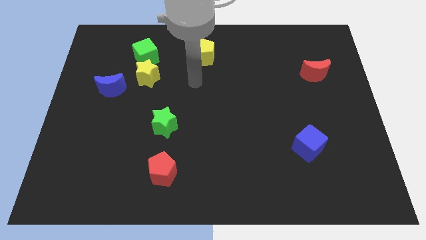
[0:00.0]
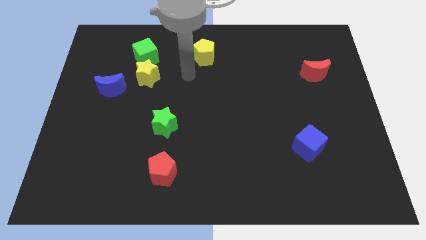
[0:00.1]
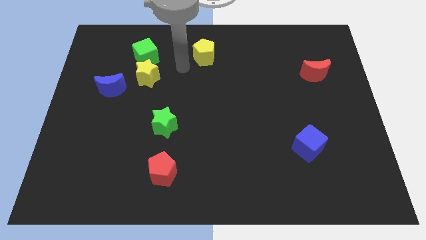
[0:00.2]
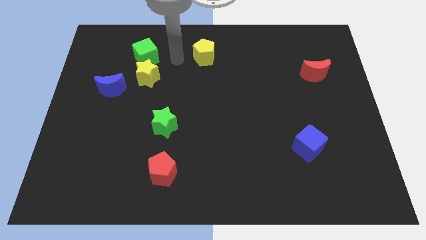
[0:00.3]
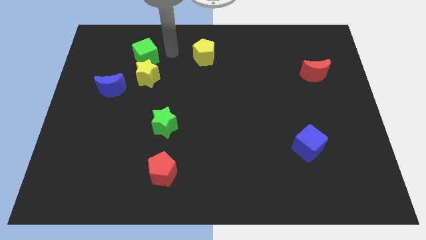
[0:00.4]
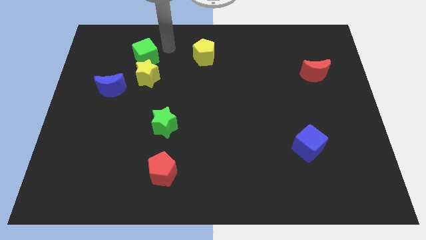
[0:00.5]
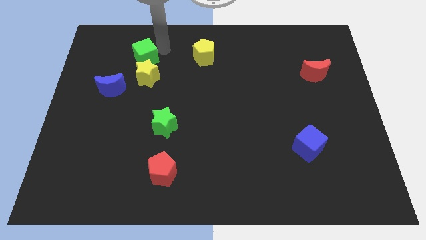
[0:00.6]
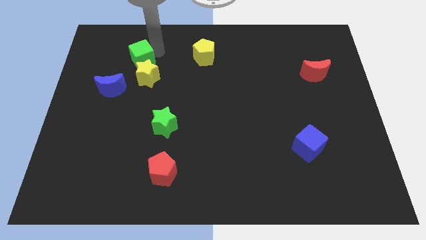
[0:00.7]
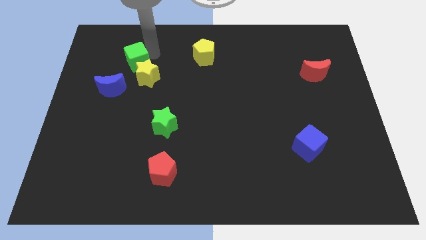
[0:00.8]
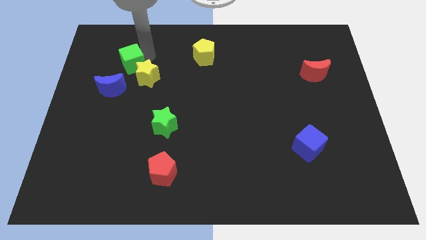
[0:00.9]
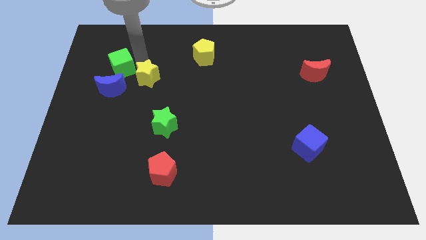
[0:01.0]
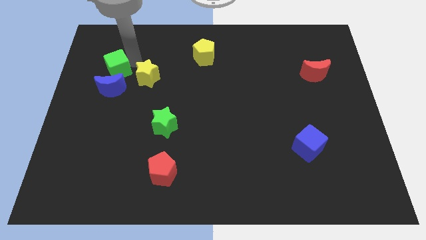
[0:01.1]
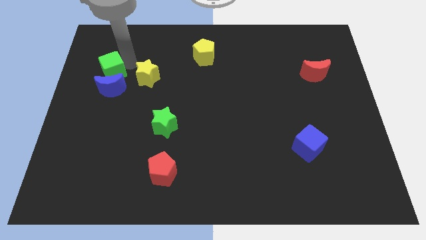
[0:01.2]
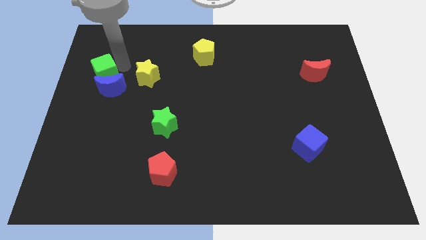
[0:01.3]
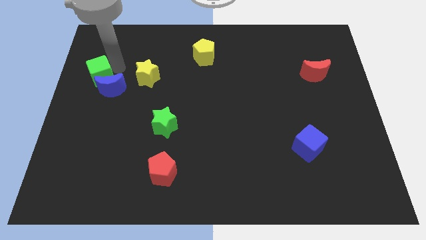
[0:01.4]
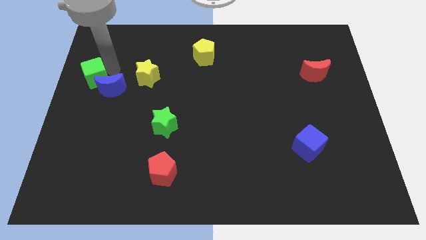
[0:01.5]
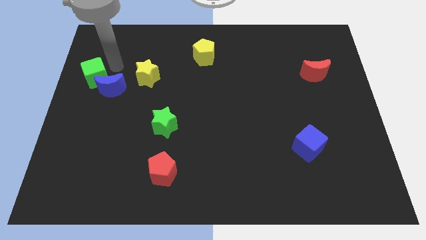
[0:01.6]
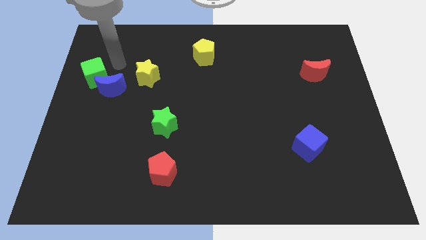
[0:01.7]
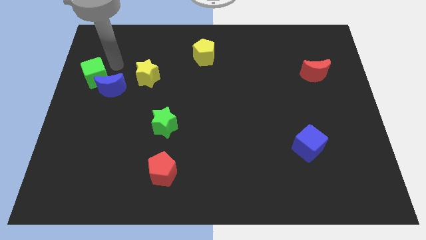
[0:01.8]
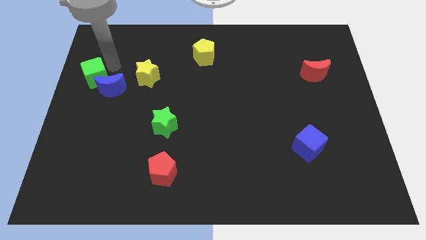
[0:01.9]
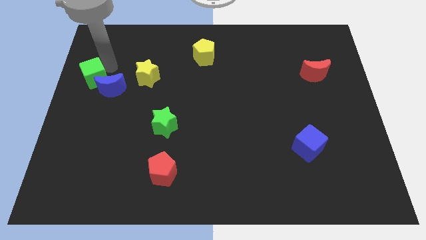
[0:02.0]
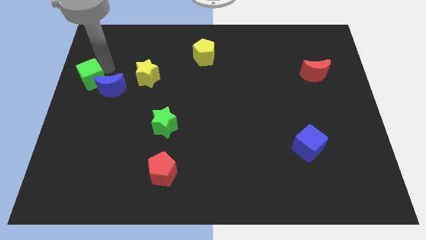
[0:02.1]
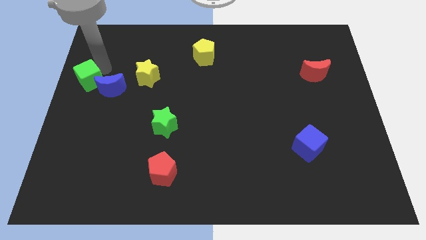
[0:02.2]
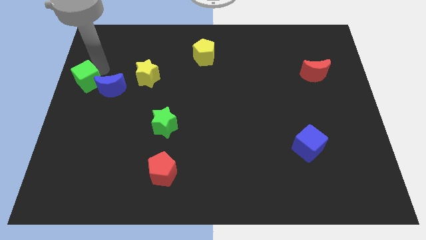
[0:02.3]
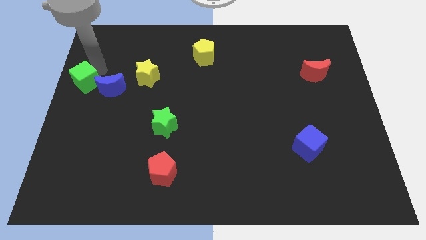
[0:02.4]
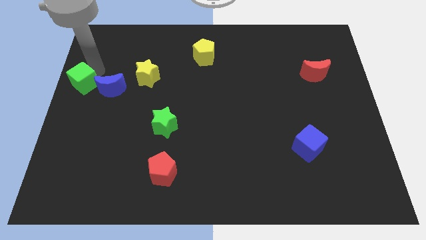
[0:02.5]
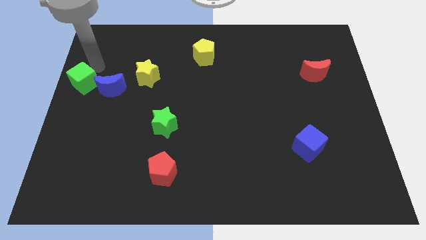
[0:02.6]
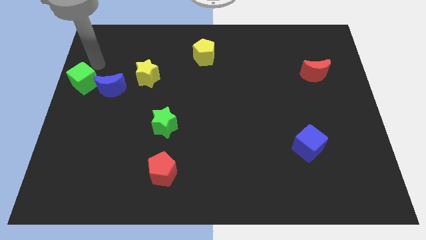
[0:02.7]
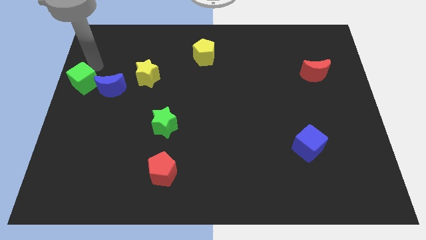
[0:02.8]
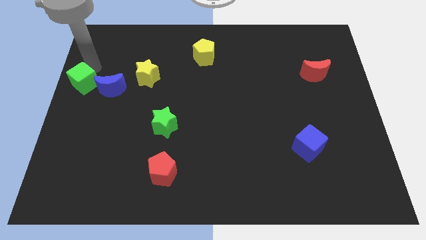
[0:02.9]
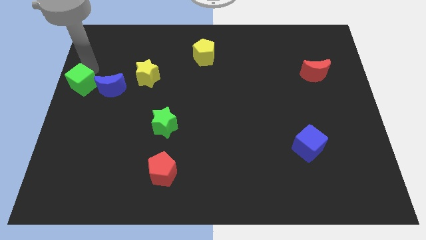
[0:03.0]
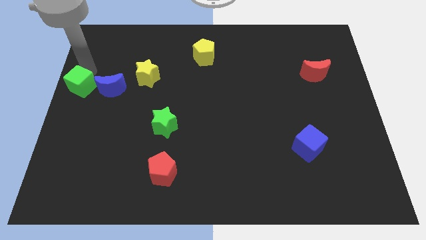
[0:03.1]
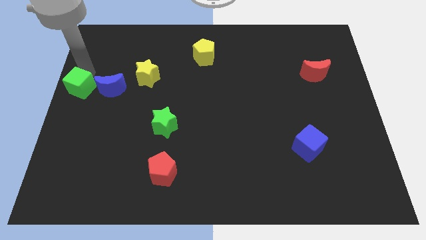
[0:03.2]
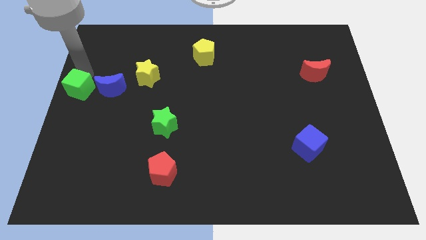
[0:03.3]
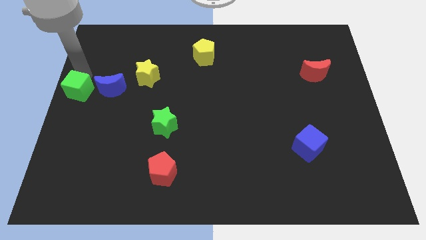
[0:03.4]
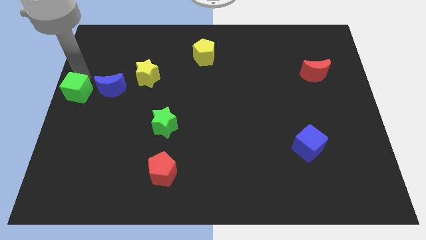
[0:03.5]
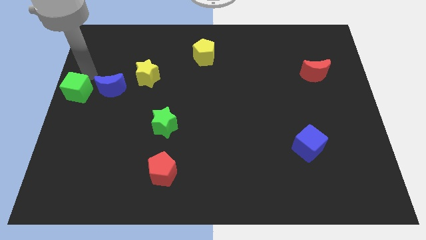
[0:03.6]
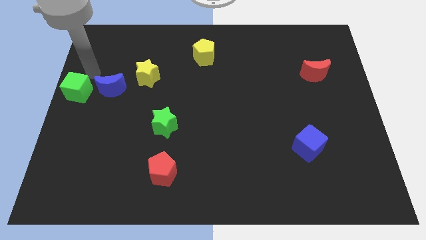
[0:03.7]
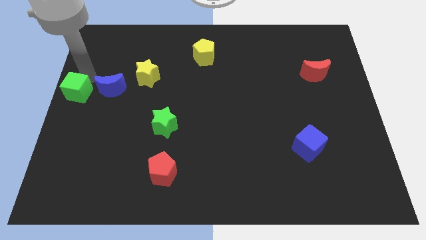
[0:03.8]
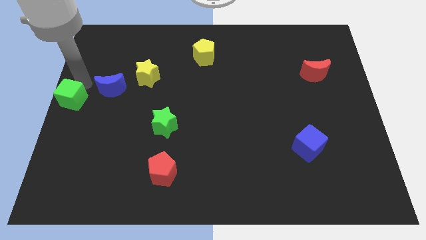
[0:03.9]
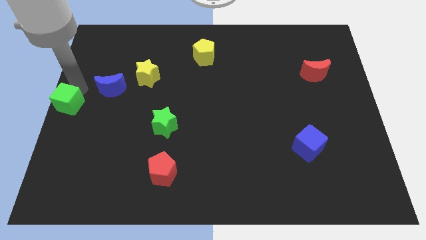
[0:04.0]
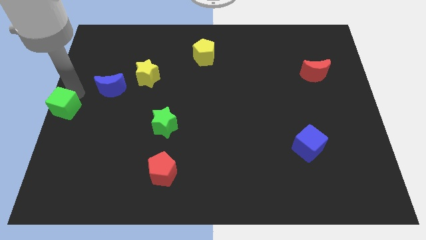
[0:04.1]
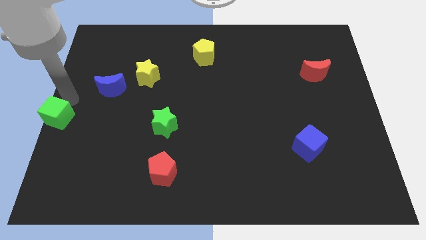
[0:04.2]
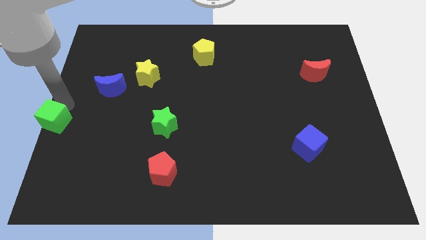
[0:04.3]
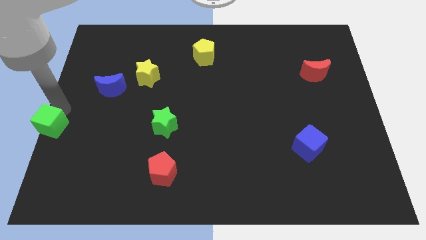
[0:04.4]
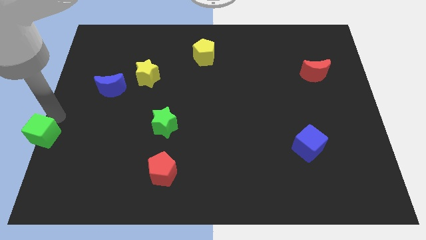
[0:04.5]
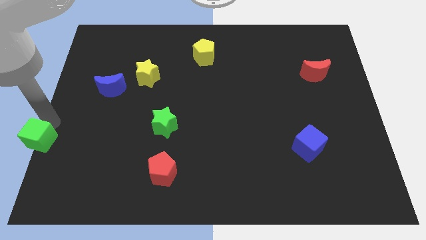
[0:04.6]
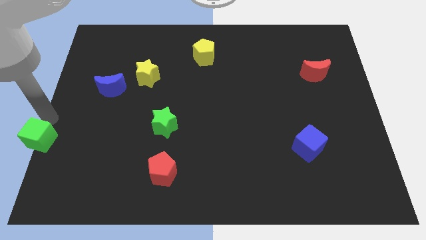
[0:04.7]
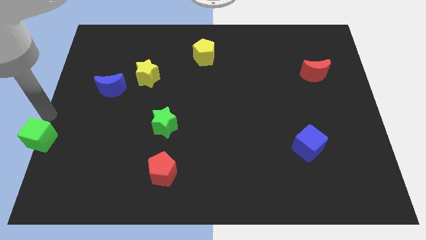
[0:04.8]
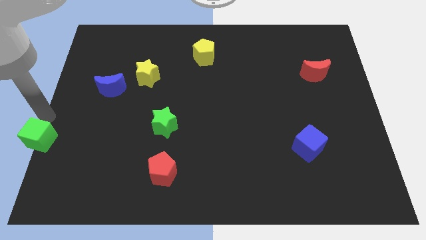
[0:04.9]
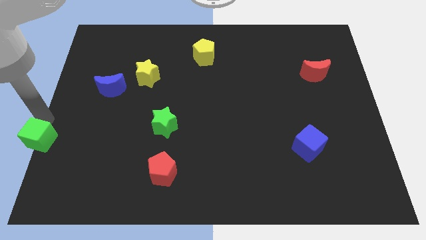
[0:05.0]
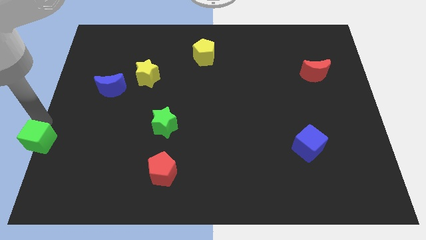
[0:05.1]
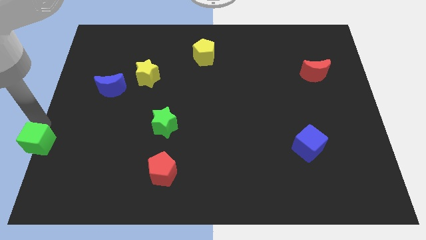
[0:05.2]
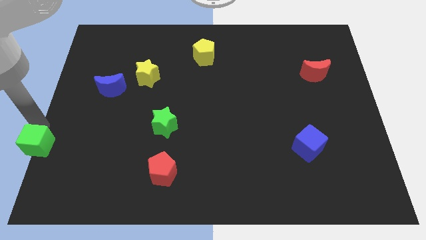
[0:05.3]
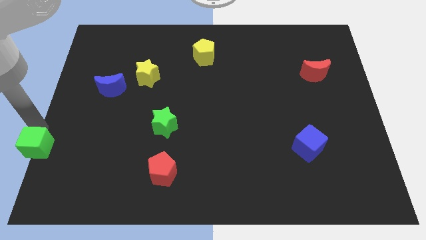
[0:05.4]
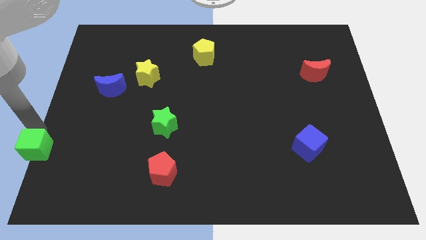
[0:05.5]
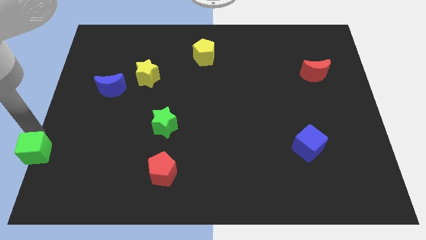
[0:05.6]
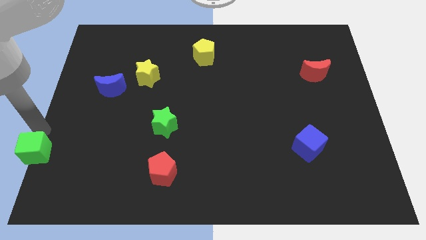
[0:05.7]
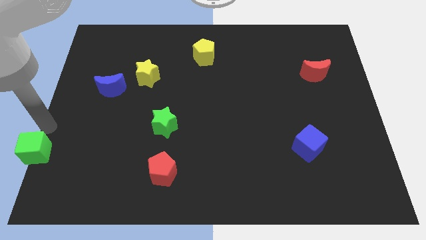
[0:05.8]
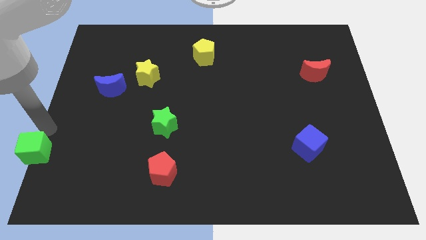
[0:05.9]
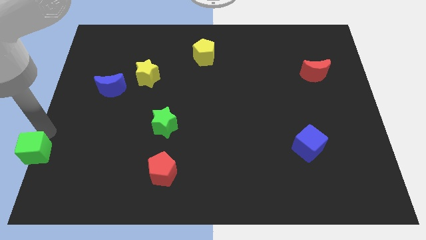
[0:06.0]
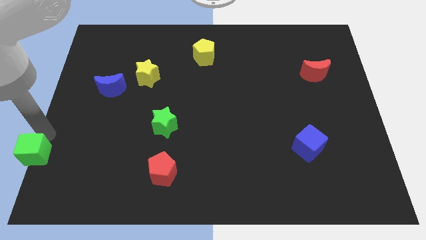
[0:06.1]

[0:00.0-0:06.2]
move the green cube to the bottom left corner
